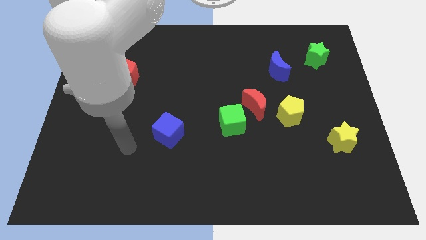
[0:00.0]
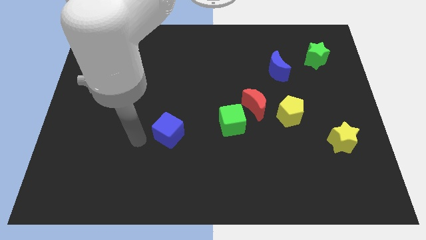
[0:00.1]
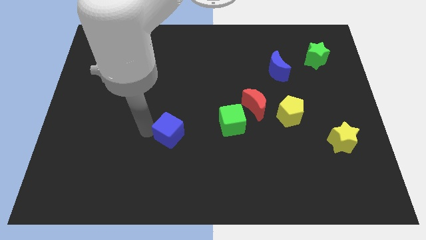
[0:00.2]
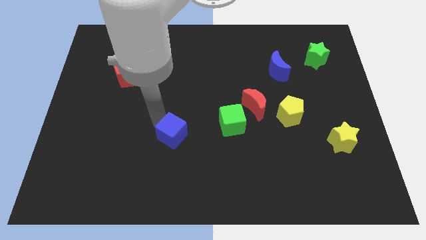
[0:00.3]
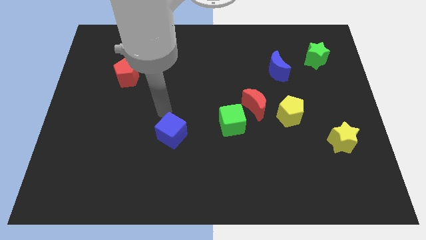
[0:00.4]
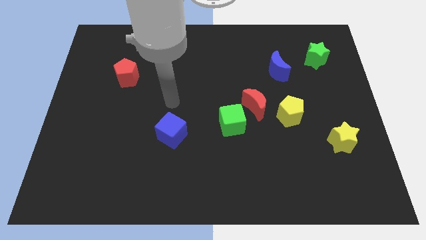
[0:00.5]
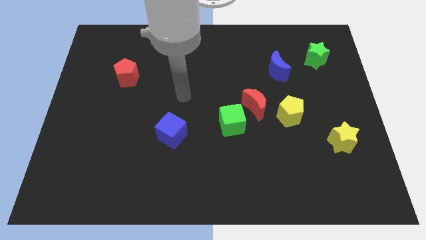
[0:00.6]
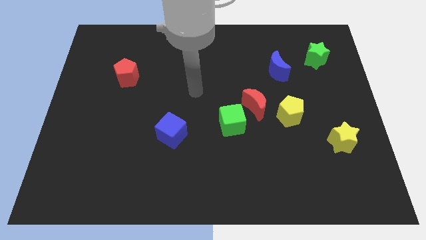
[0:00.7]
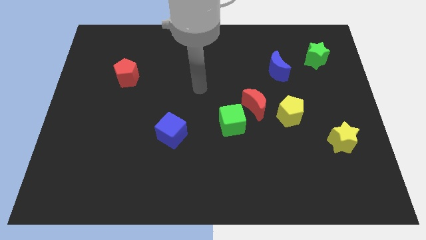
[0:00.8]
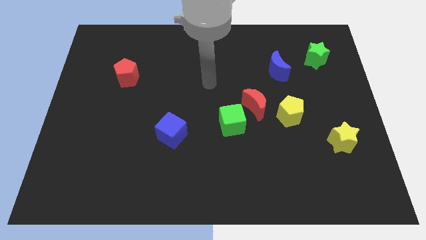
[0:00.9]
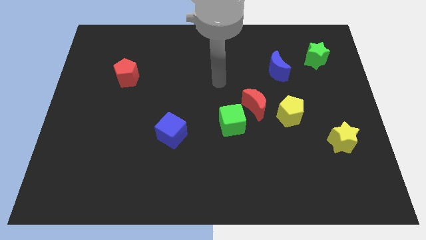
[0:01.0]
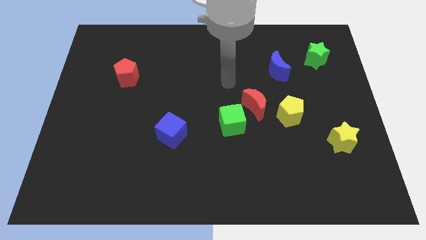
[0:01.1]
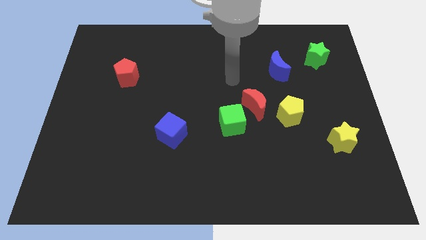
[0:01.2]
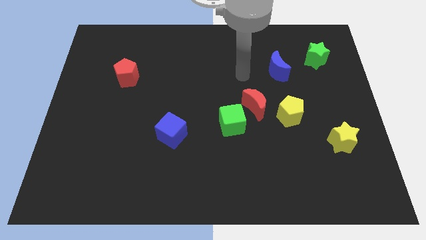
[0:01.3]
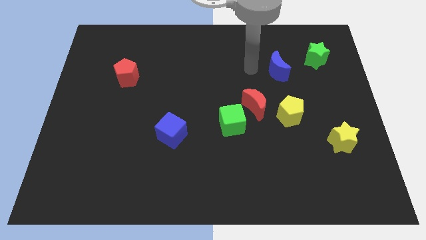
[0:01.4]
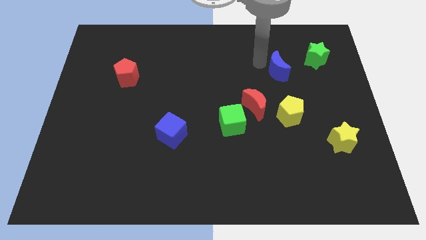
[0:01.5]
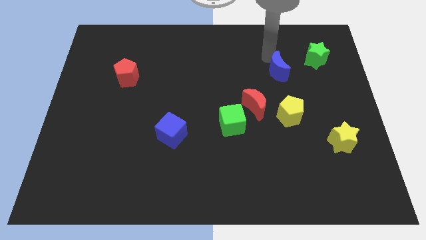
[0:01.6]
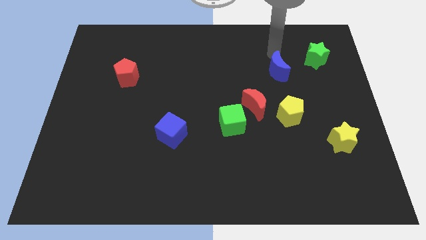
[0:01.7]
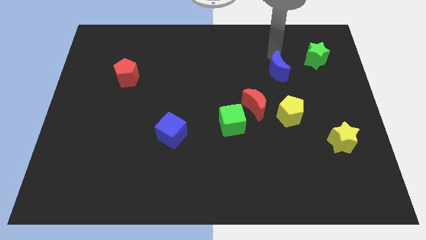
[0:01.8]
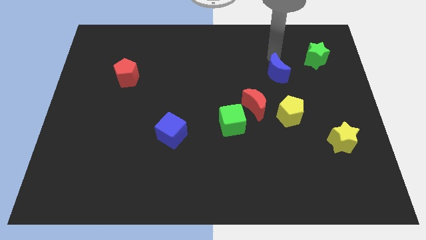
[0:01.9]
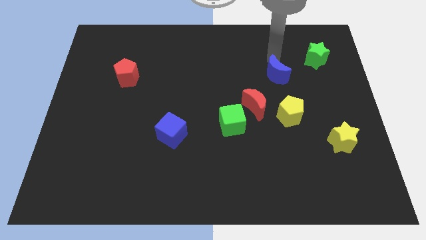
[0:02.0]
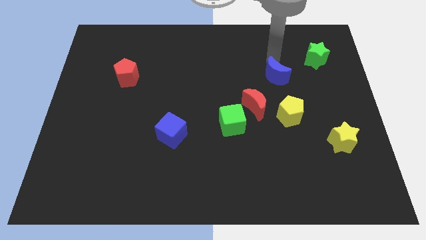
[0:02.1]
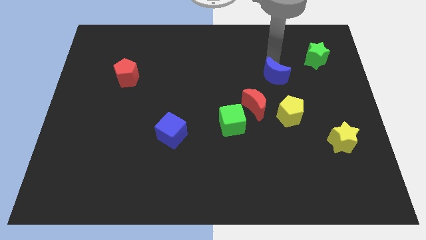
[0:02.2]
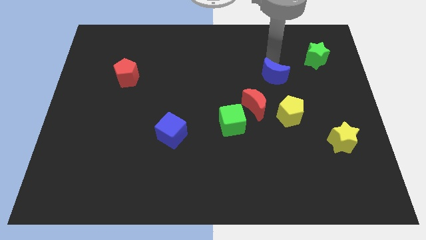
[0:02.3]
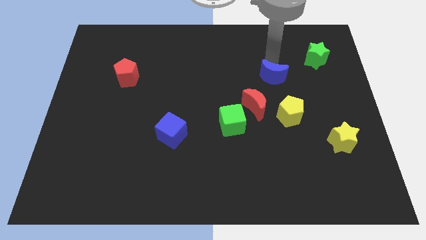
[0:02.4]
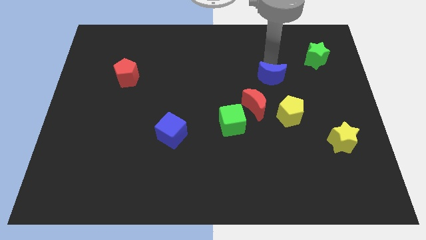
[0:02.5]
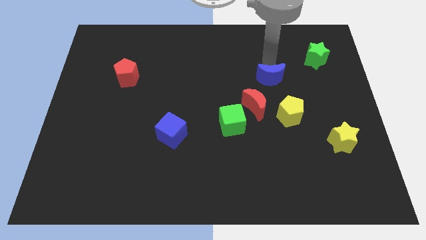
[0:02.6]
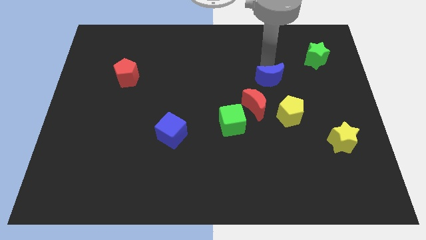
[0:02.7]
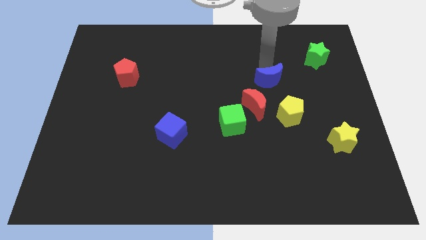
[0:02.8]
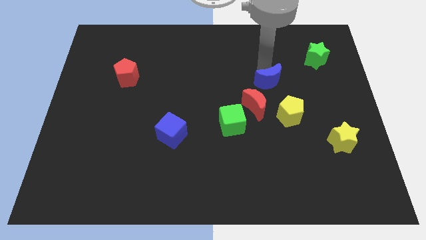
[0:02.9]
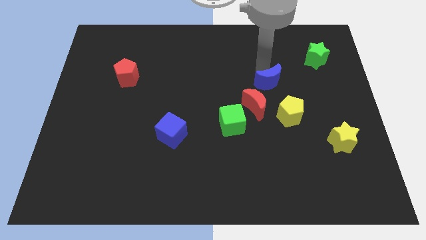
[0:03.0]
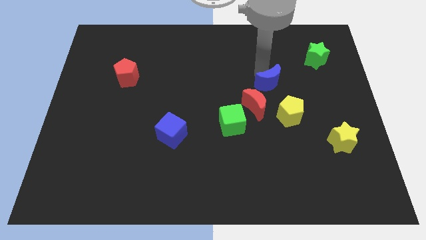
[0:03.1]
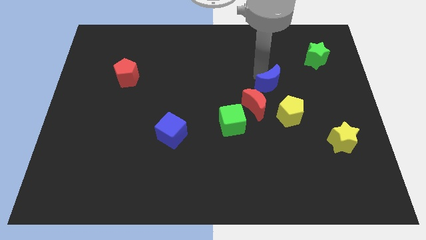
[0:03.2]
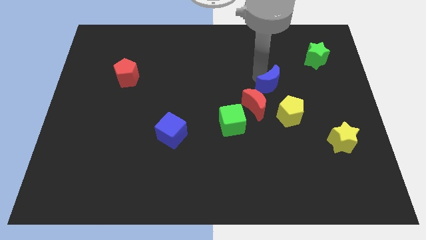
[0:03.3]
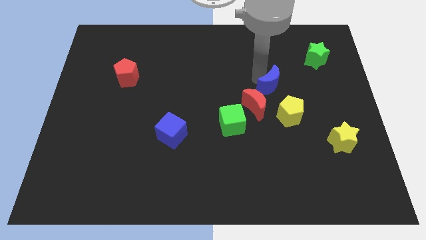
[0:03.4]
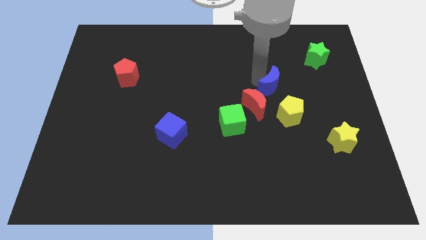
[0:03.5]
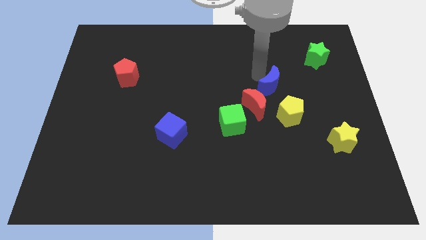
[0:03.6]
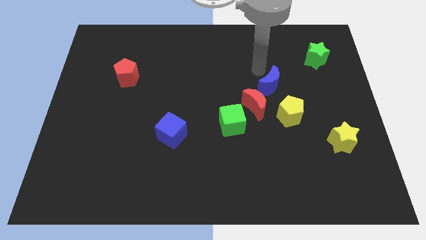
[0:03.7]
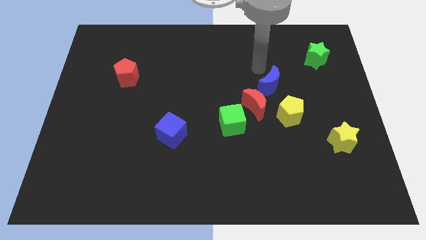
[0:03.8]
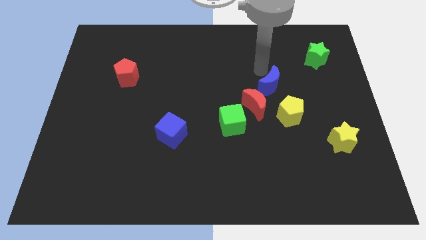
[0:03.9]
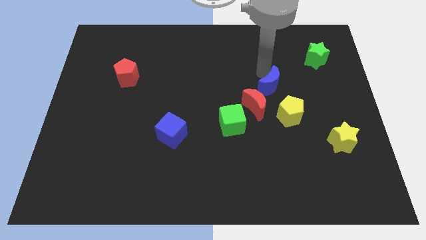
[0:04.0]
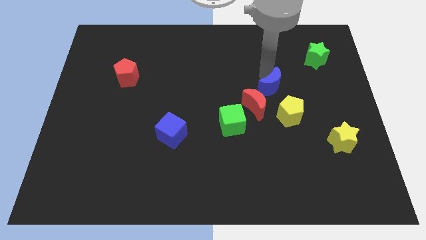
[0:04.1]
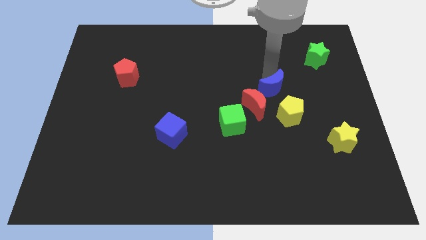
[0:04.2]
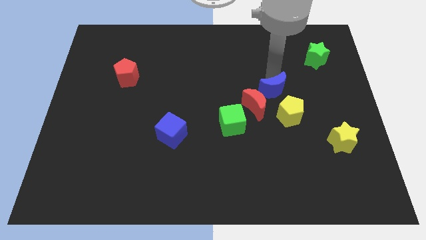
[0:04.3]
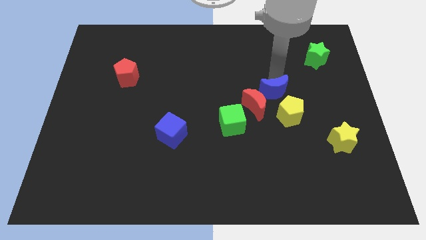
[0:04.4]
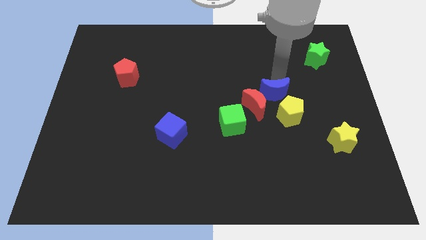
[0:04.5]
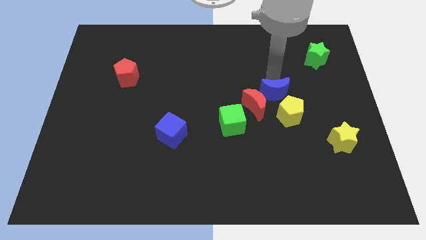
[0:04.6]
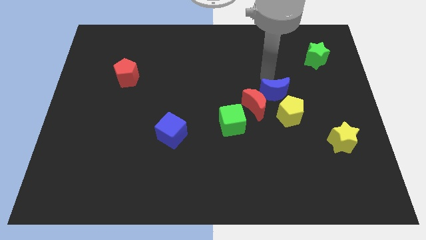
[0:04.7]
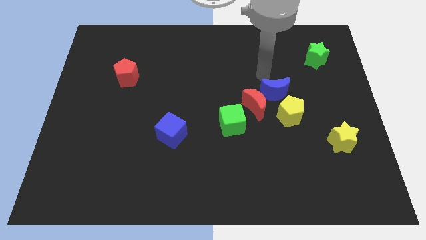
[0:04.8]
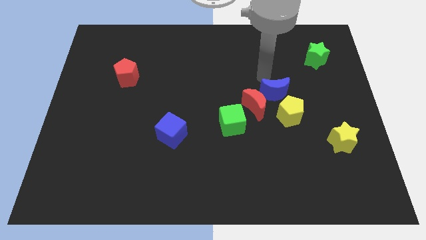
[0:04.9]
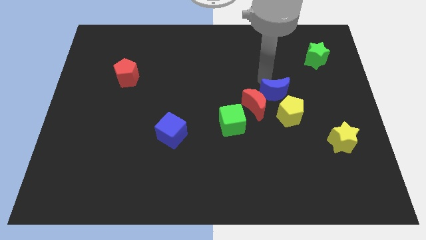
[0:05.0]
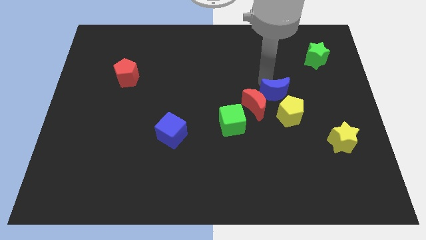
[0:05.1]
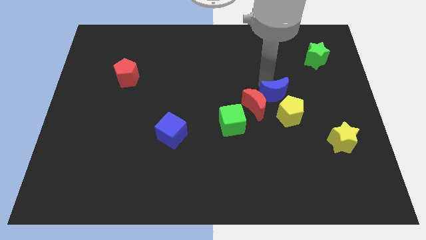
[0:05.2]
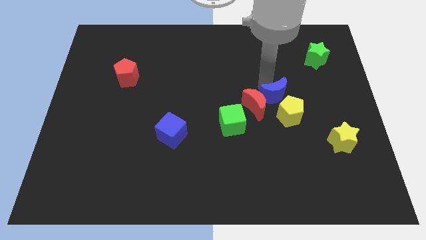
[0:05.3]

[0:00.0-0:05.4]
slide the blue moon towards the yellow pentagon

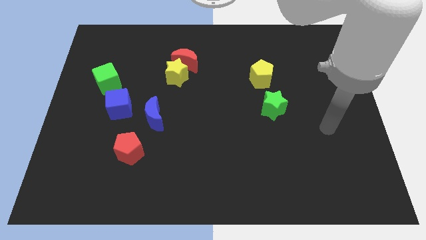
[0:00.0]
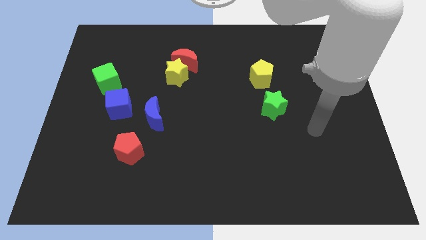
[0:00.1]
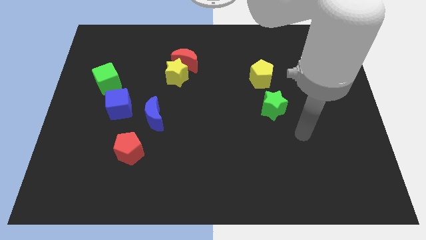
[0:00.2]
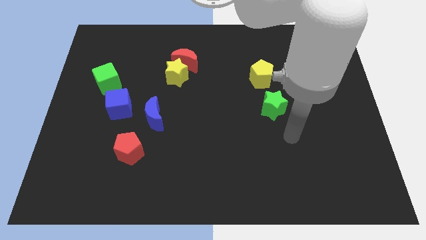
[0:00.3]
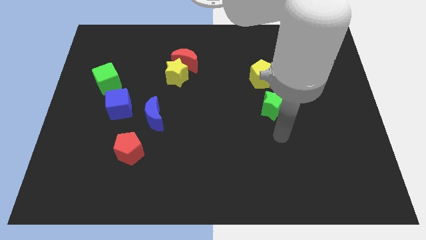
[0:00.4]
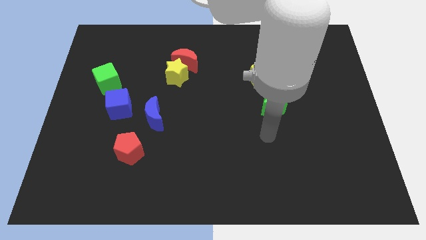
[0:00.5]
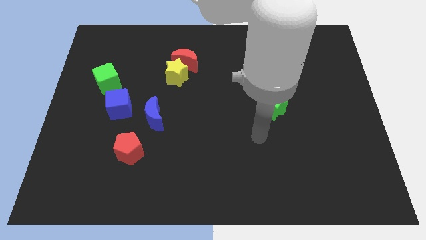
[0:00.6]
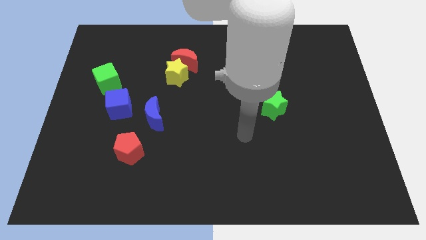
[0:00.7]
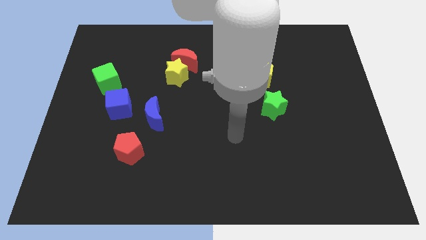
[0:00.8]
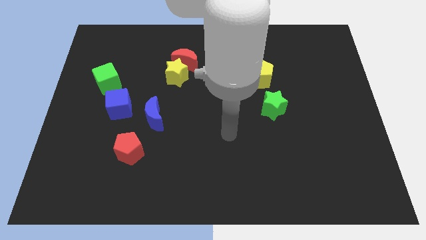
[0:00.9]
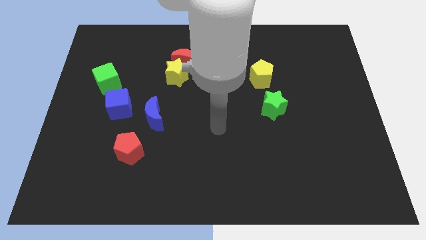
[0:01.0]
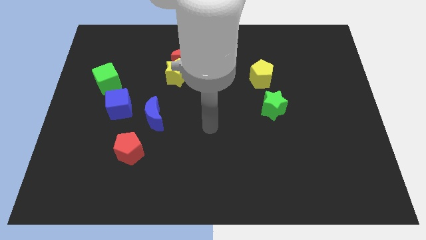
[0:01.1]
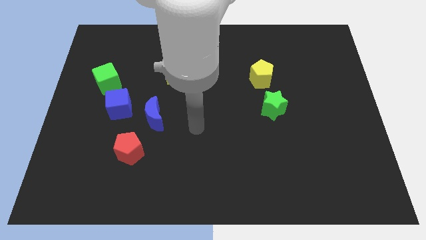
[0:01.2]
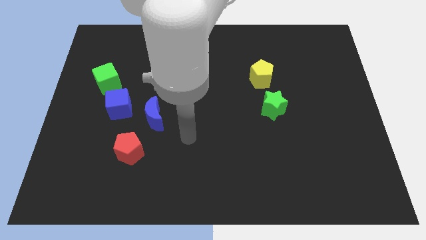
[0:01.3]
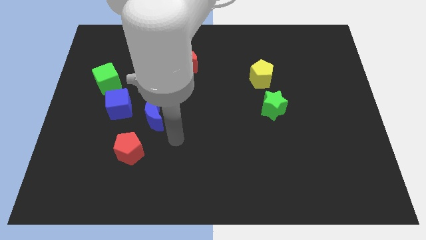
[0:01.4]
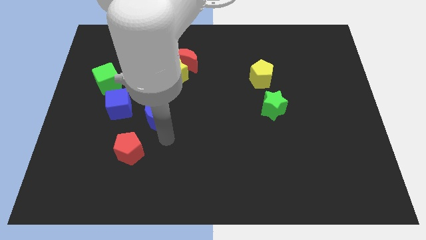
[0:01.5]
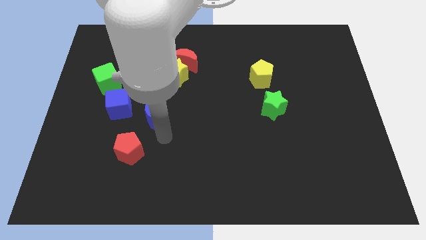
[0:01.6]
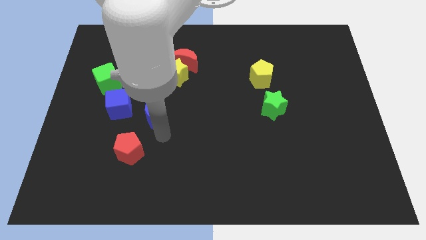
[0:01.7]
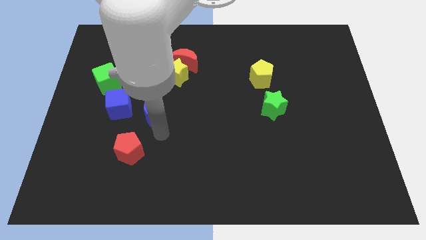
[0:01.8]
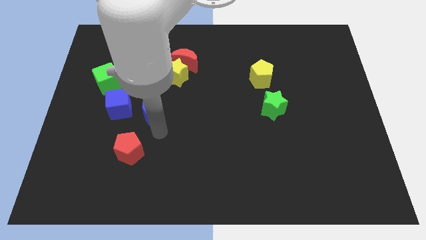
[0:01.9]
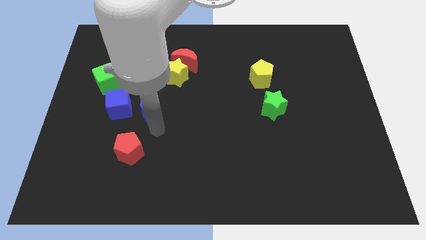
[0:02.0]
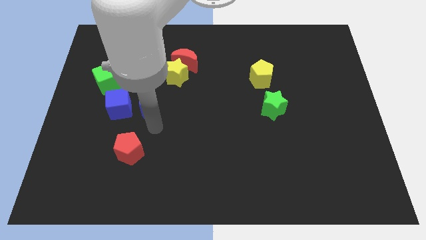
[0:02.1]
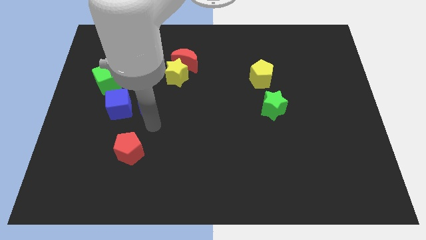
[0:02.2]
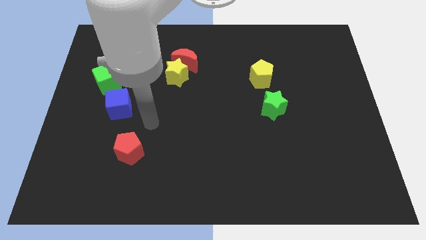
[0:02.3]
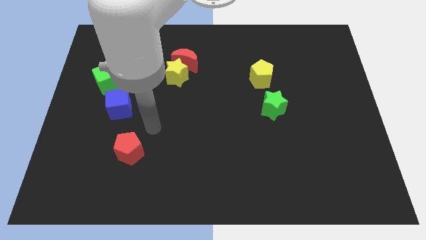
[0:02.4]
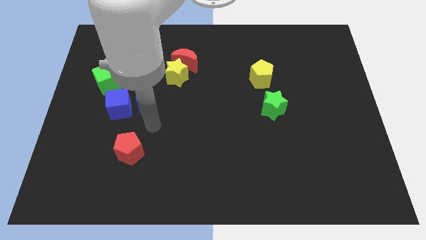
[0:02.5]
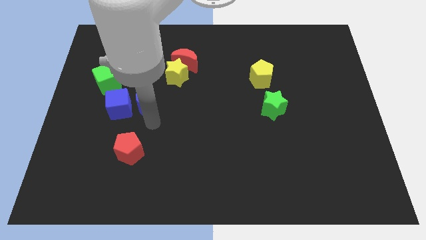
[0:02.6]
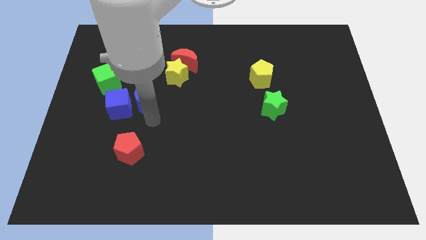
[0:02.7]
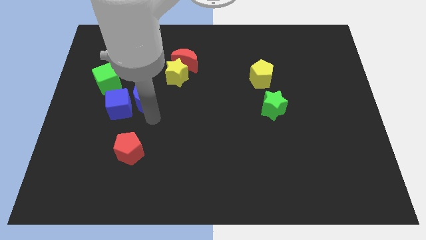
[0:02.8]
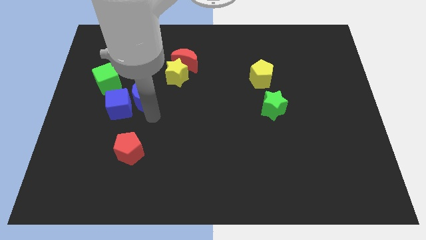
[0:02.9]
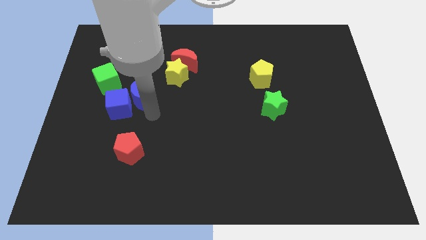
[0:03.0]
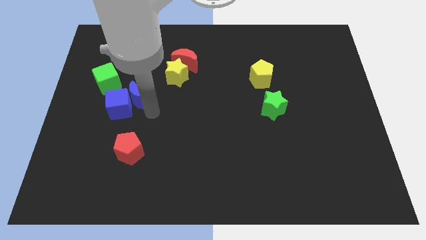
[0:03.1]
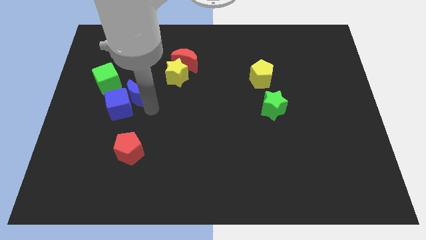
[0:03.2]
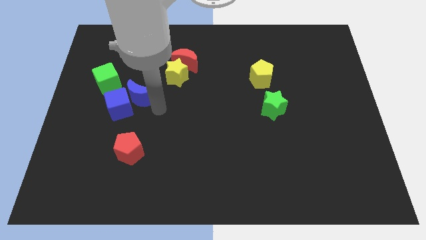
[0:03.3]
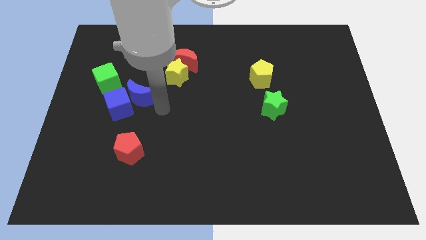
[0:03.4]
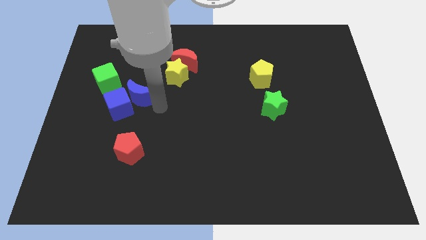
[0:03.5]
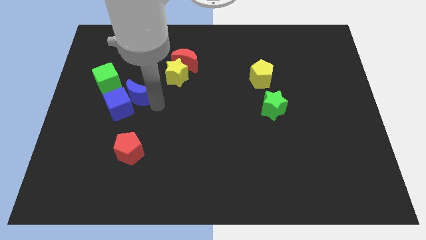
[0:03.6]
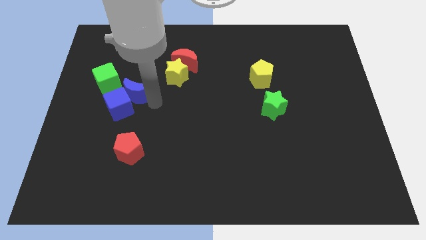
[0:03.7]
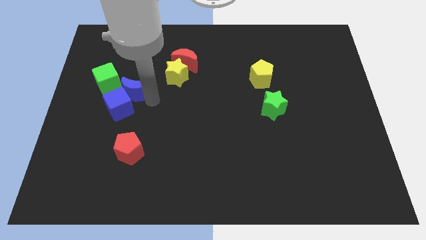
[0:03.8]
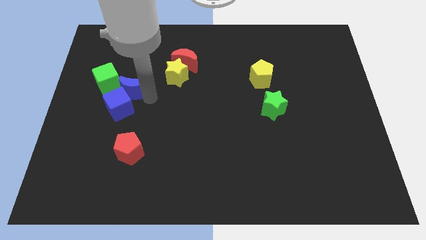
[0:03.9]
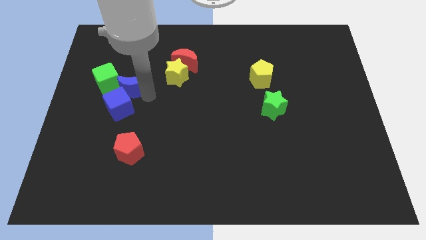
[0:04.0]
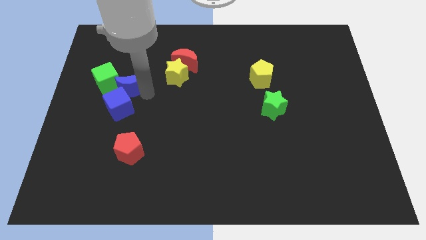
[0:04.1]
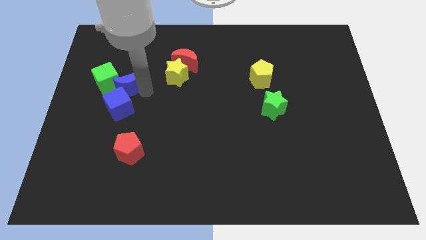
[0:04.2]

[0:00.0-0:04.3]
slide the blue moon to the green cube
